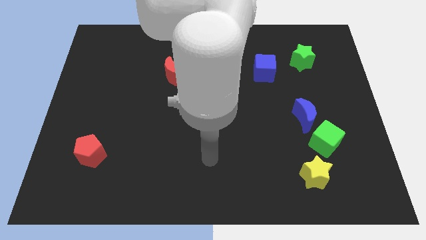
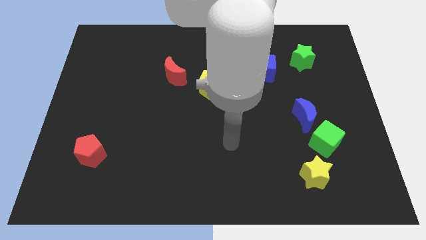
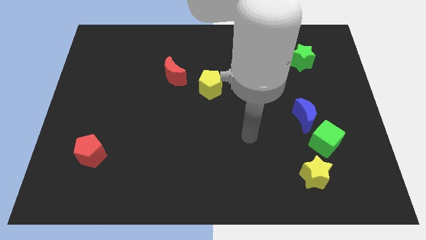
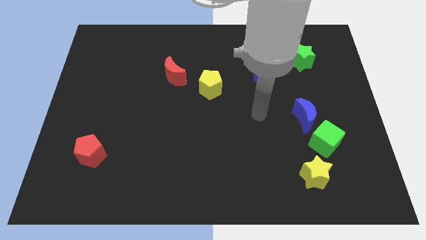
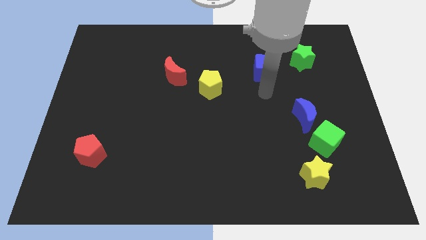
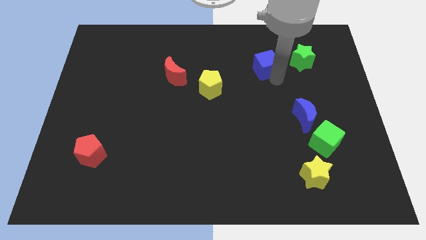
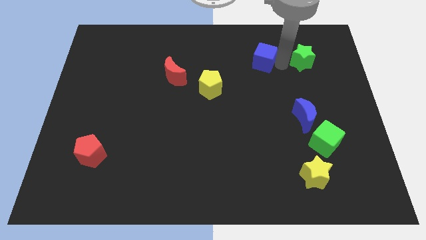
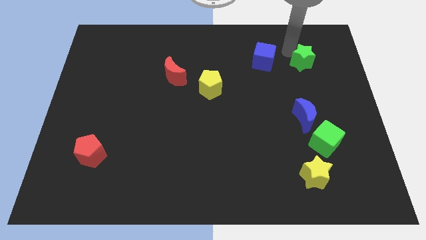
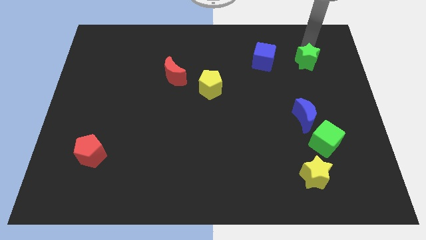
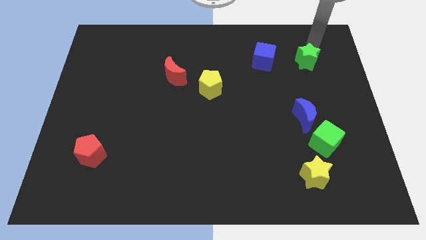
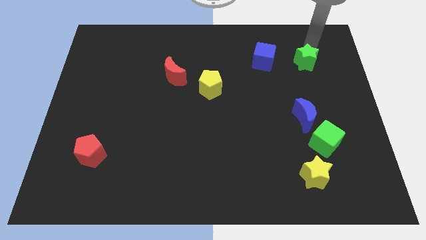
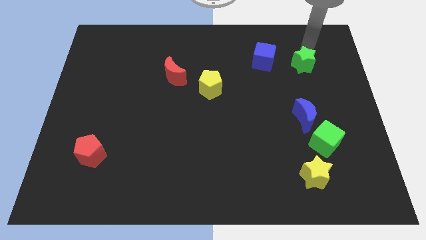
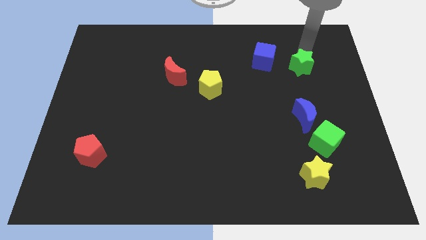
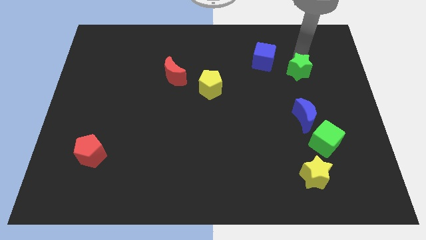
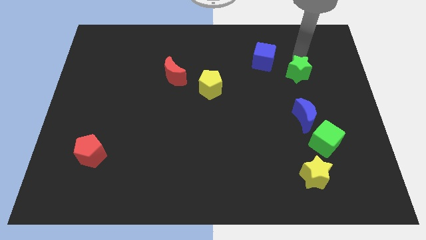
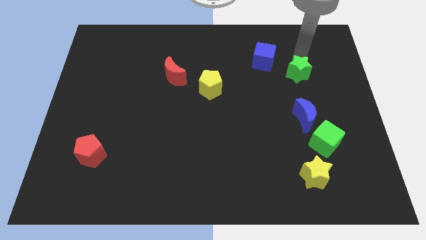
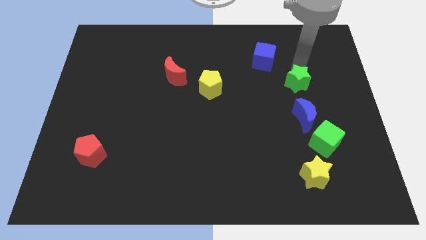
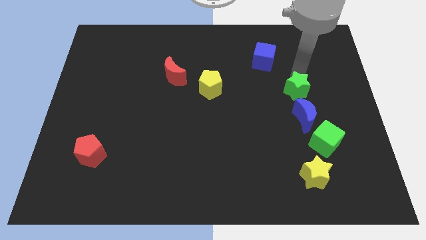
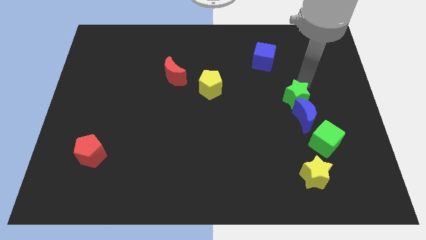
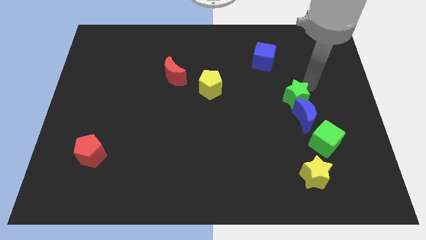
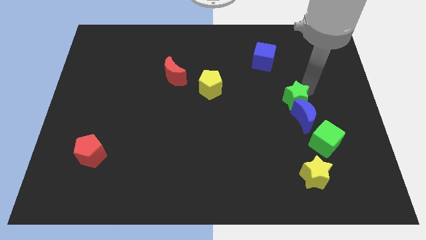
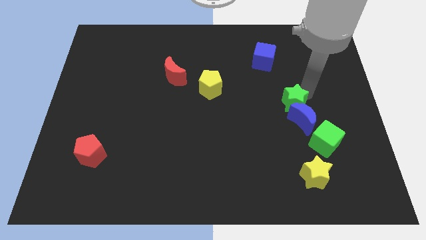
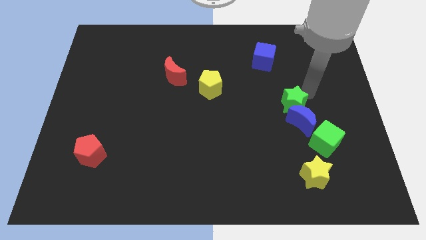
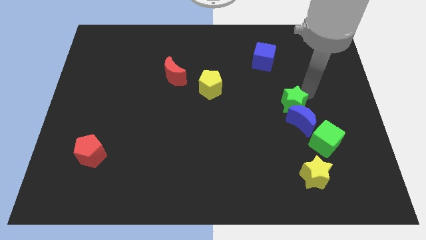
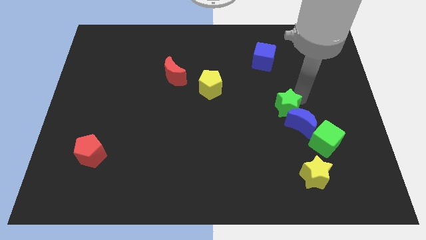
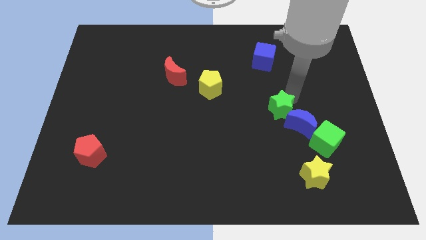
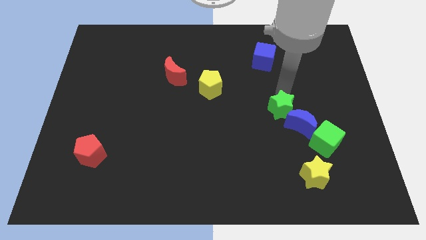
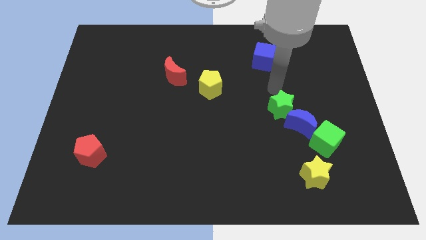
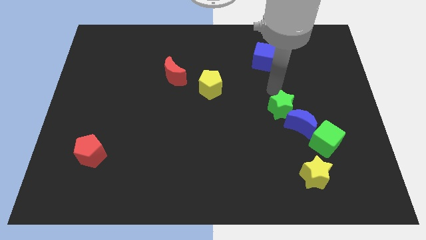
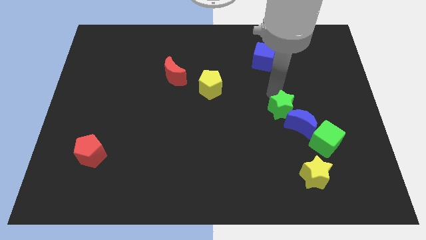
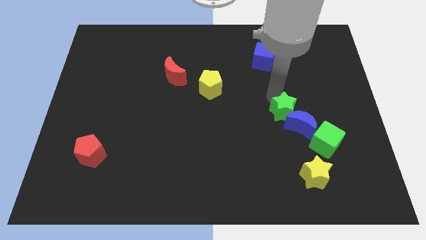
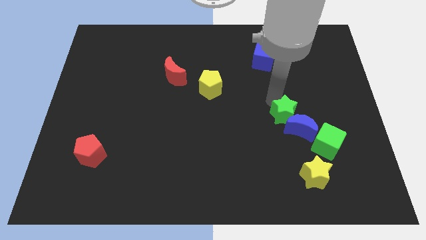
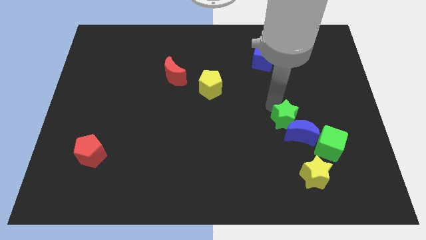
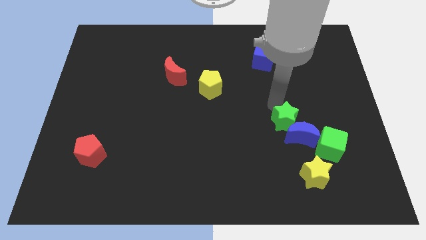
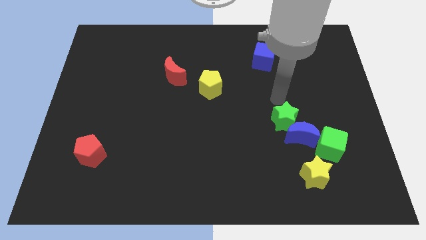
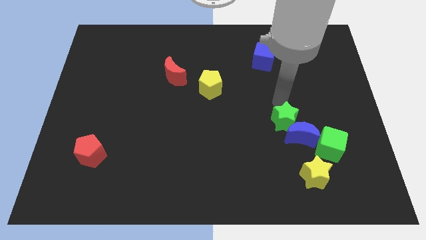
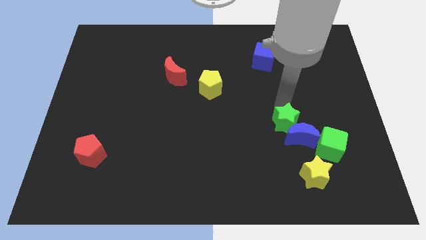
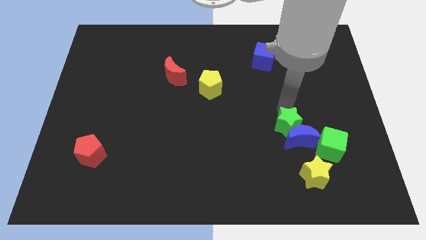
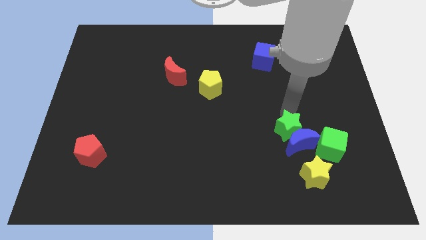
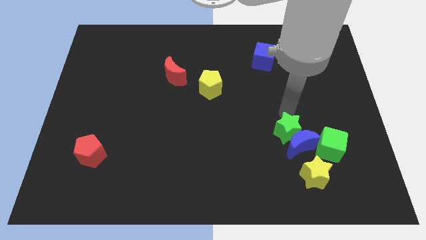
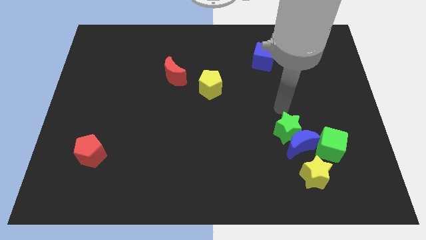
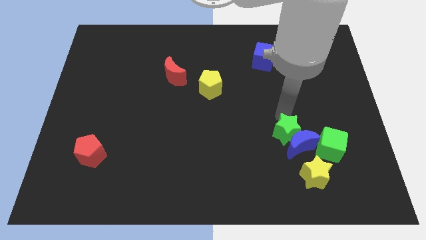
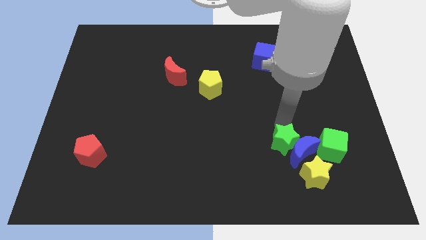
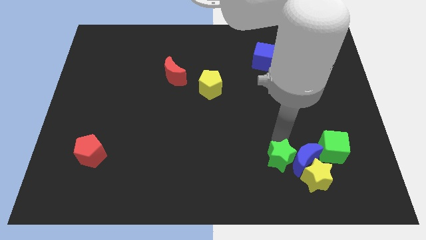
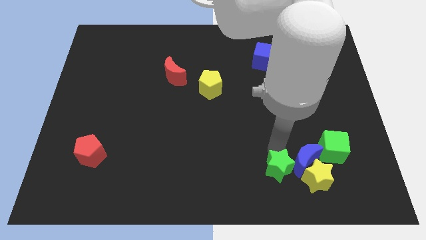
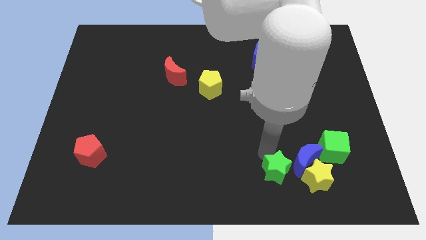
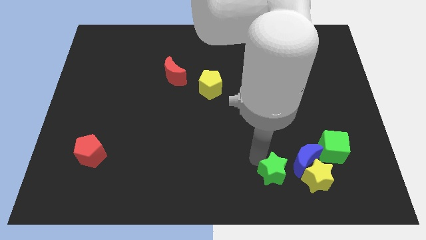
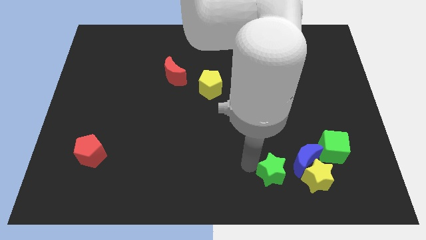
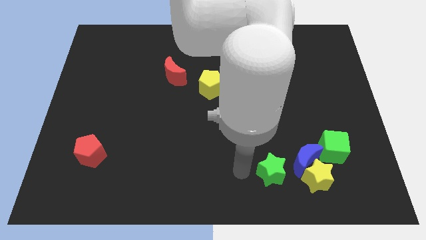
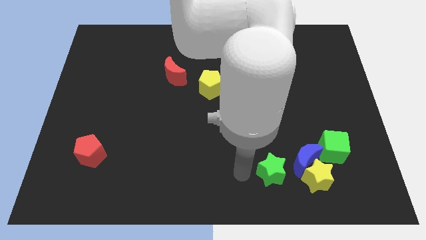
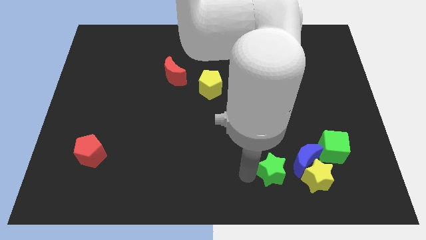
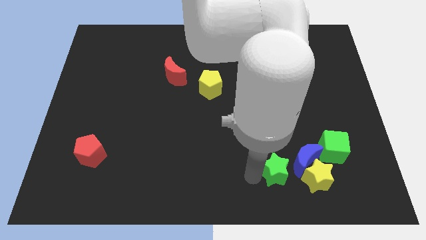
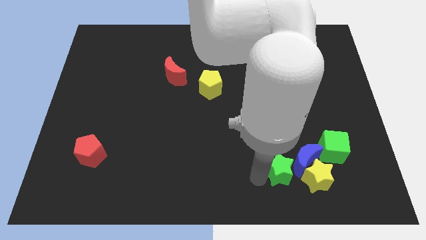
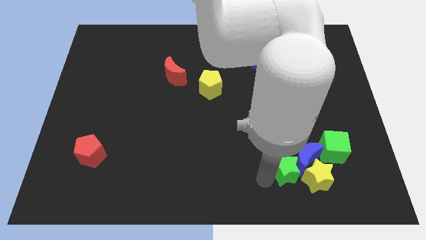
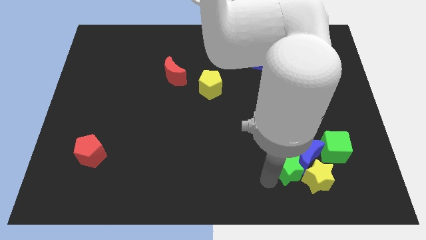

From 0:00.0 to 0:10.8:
put the green star diagonally down and to the left of the green cube

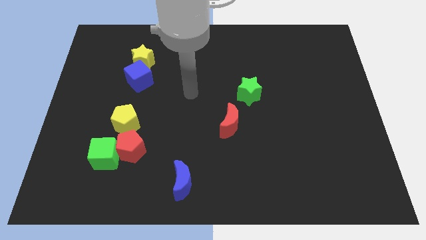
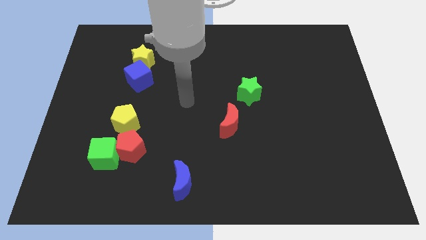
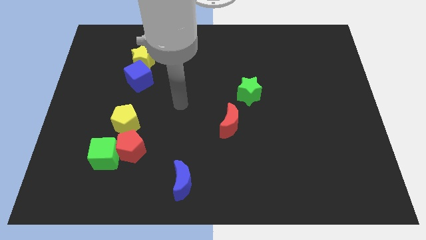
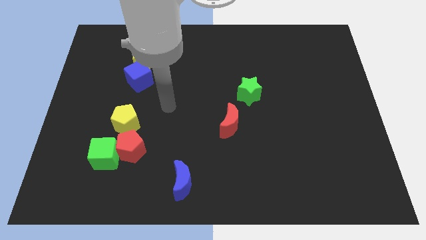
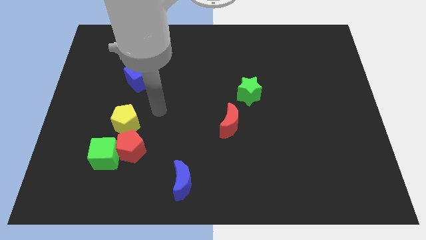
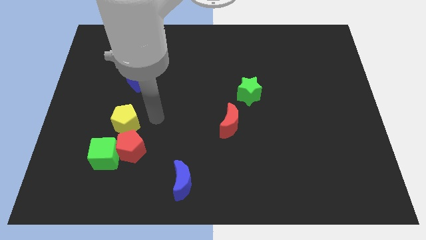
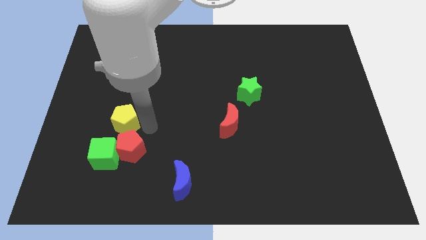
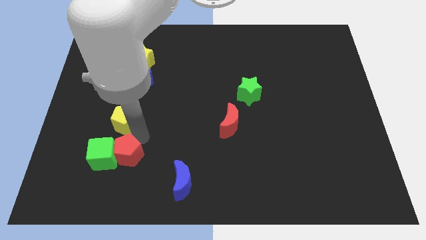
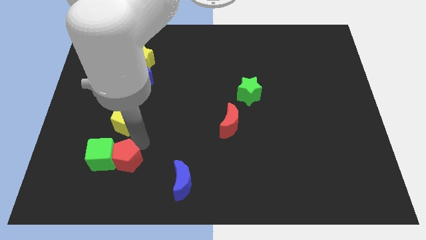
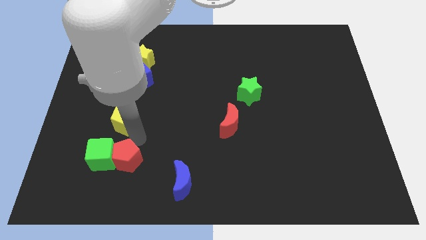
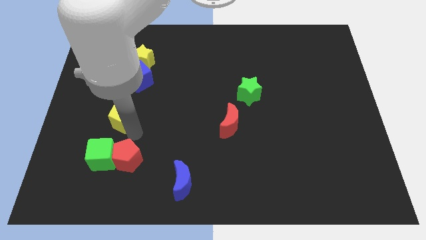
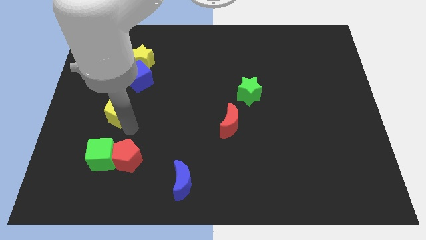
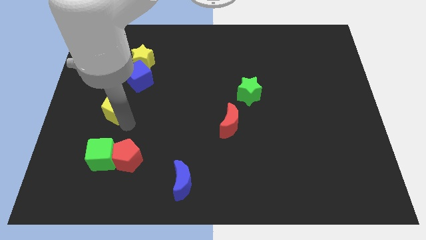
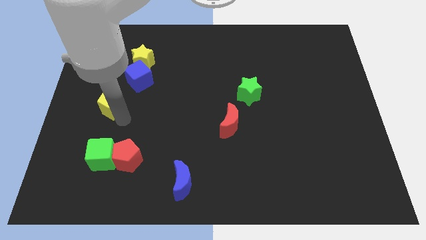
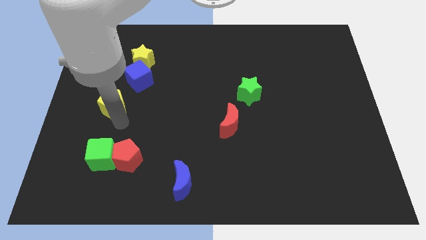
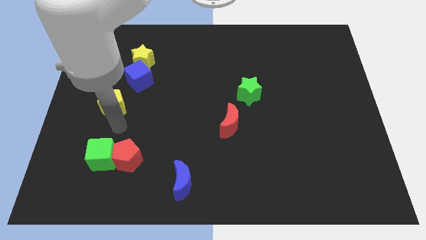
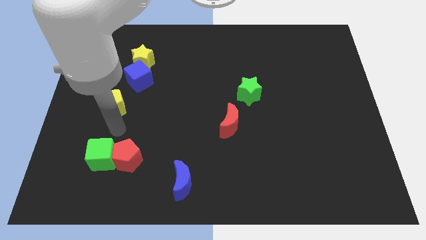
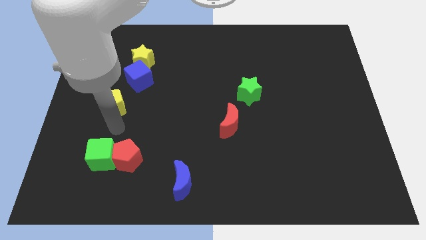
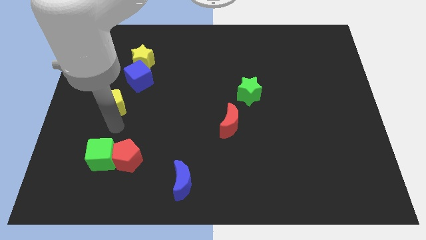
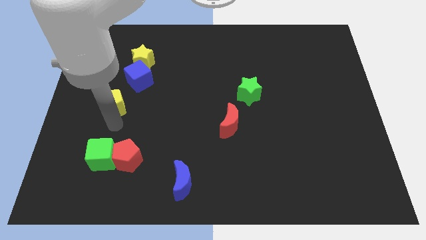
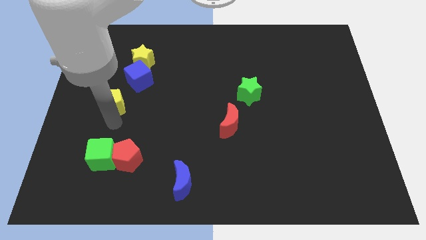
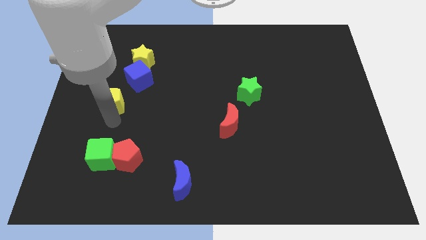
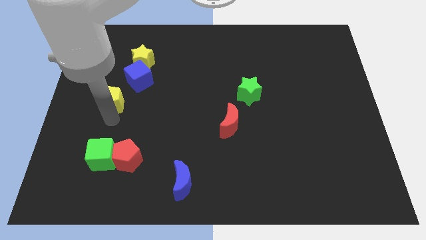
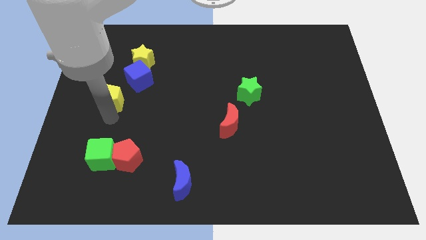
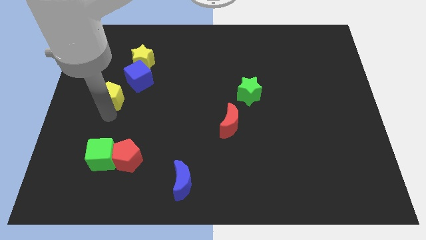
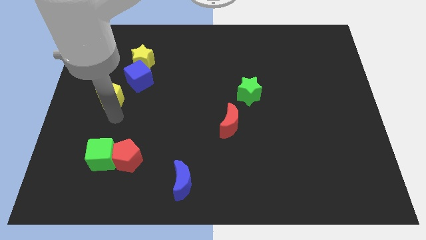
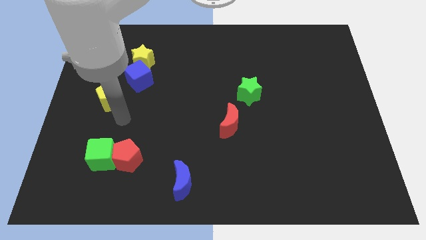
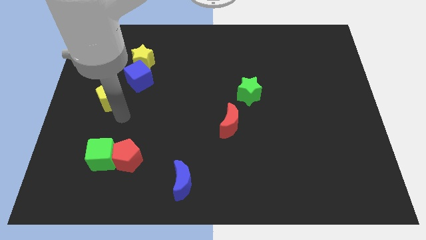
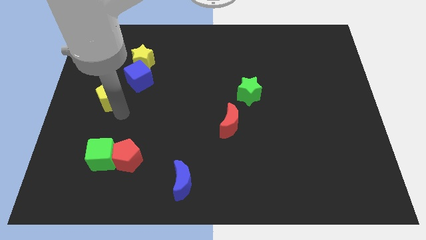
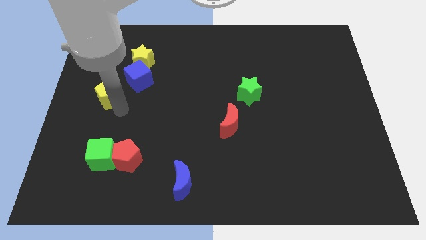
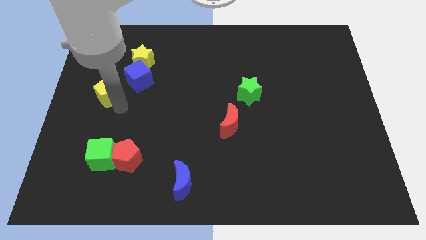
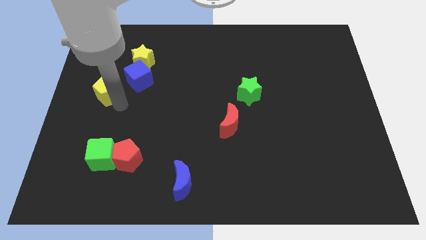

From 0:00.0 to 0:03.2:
slide the yellow pentagon left of the blue cube
